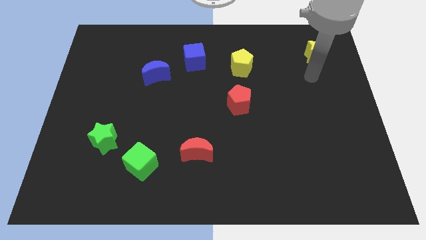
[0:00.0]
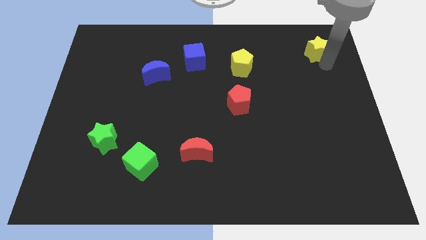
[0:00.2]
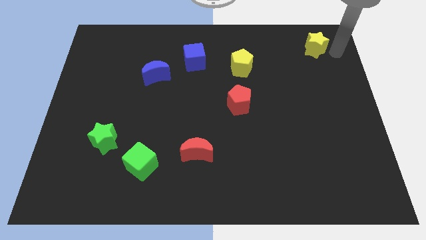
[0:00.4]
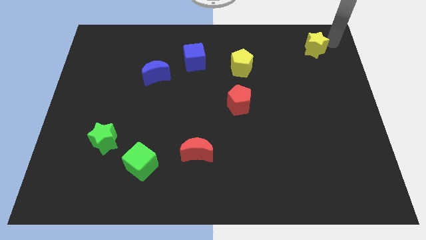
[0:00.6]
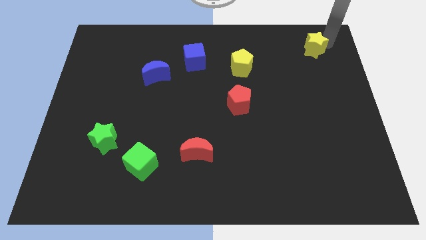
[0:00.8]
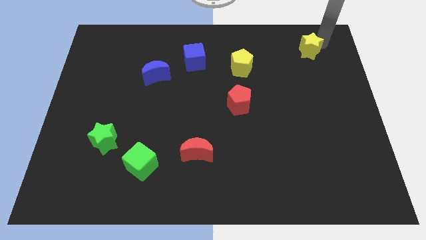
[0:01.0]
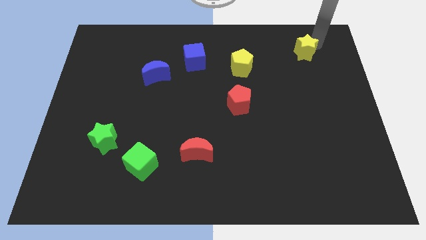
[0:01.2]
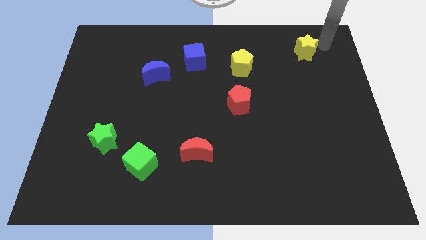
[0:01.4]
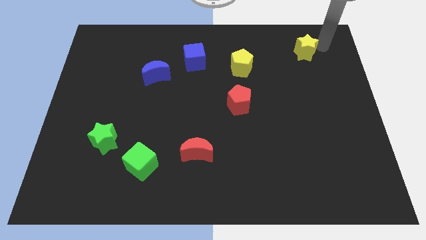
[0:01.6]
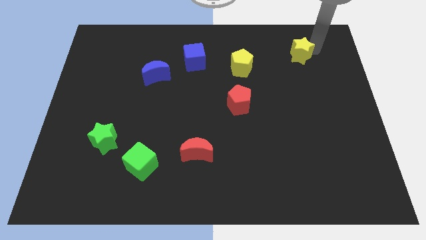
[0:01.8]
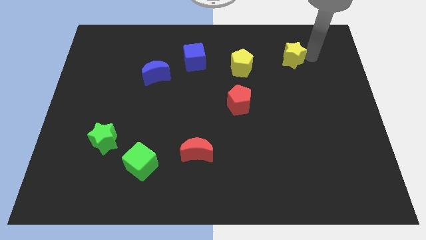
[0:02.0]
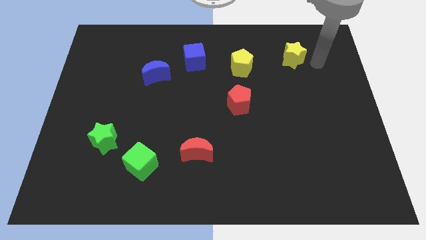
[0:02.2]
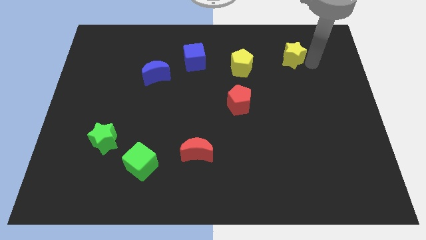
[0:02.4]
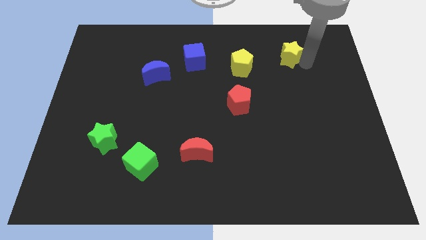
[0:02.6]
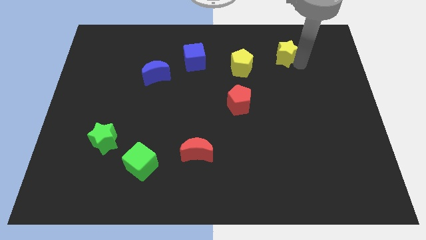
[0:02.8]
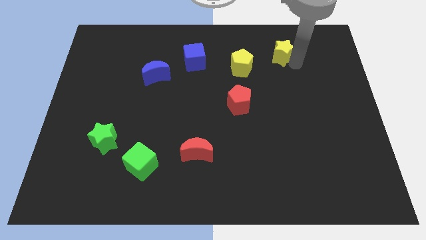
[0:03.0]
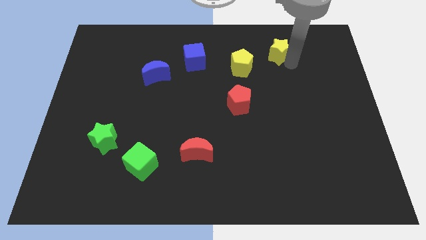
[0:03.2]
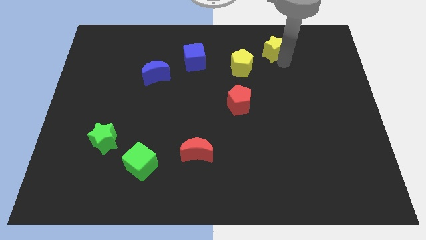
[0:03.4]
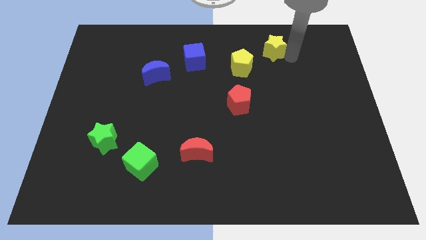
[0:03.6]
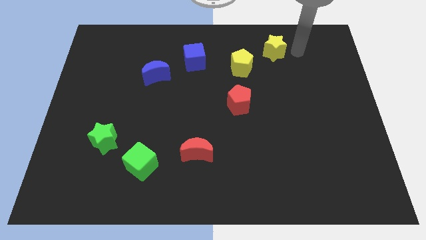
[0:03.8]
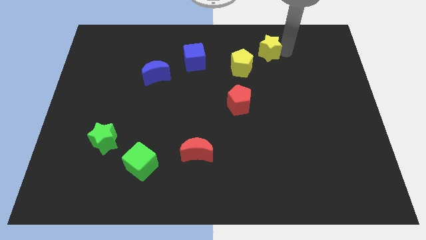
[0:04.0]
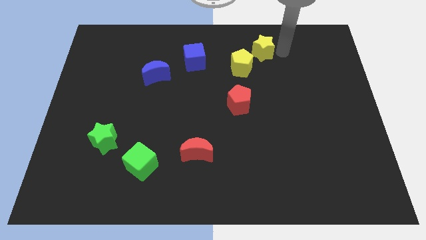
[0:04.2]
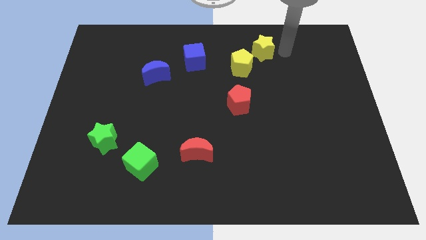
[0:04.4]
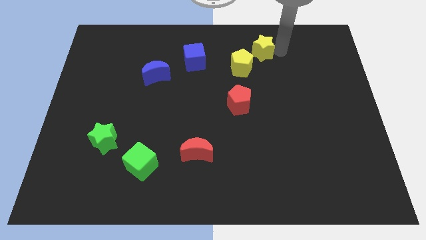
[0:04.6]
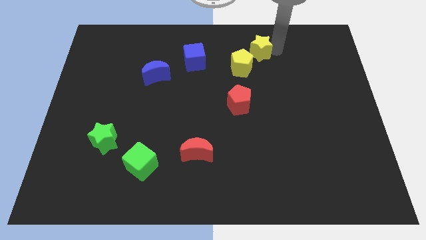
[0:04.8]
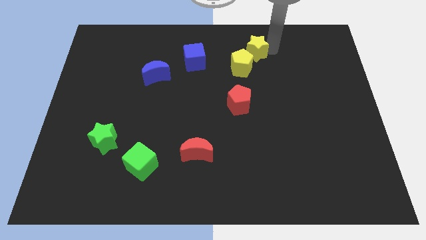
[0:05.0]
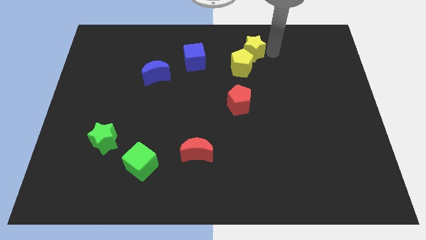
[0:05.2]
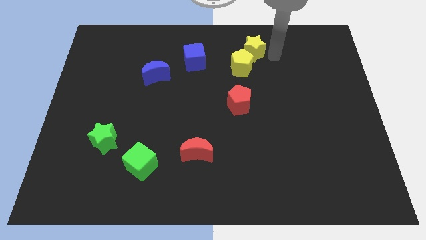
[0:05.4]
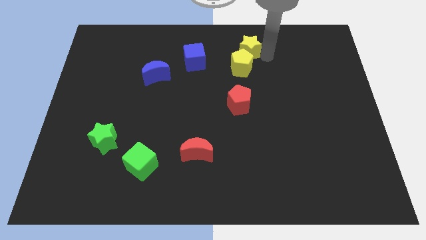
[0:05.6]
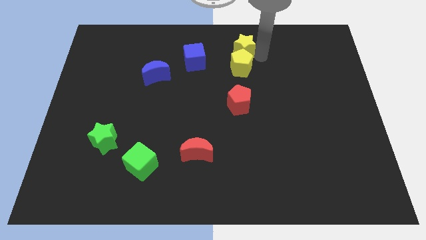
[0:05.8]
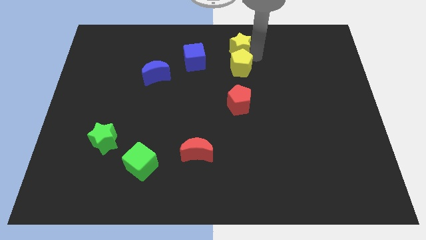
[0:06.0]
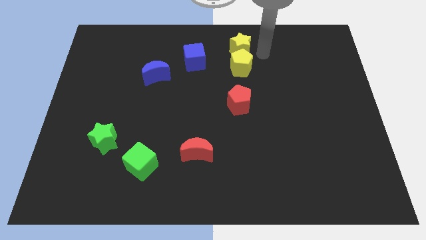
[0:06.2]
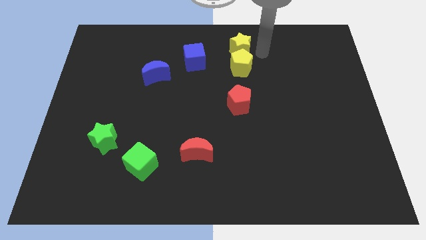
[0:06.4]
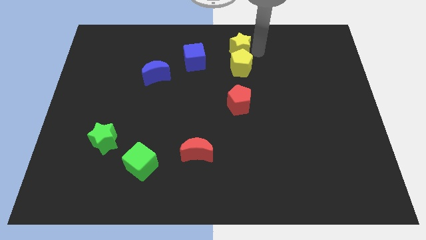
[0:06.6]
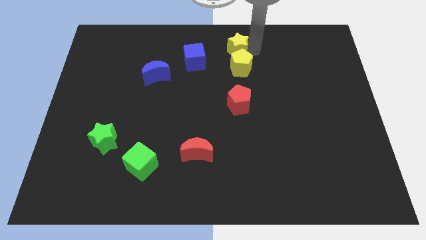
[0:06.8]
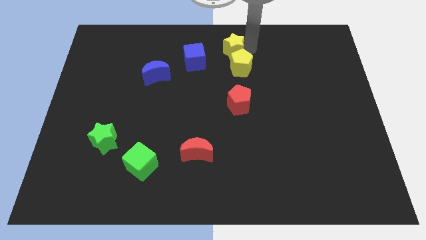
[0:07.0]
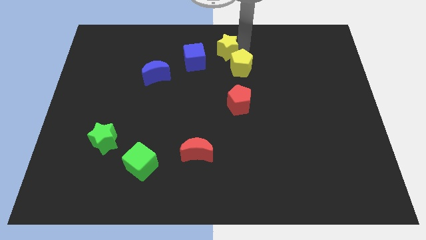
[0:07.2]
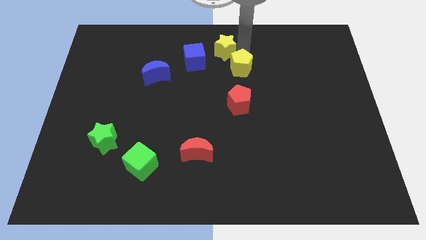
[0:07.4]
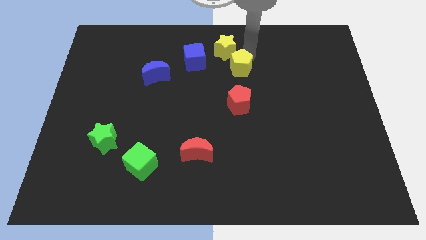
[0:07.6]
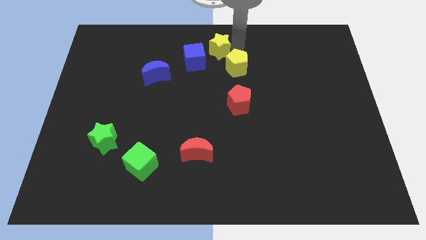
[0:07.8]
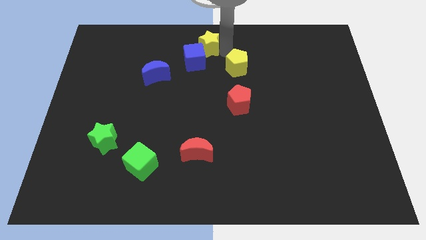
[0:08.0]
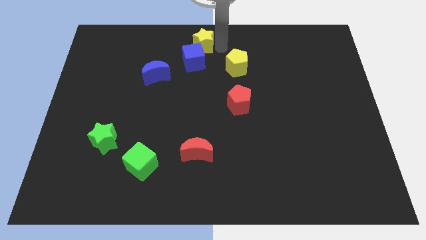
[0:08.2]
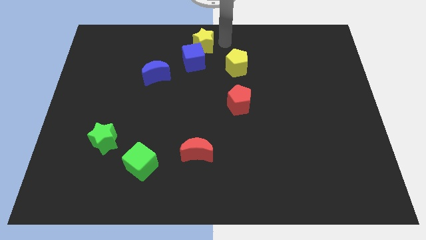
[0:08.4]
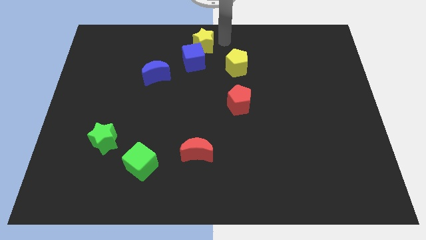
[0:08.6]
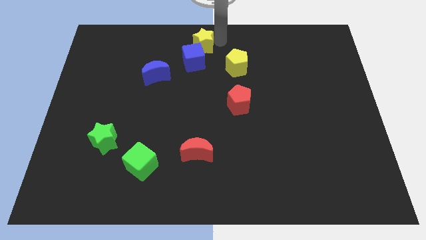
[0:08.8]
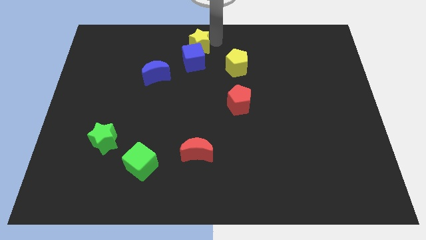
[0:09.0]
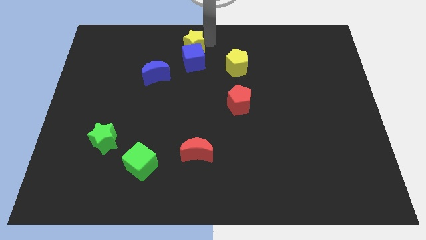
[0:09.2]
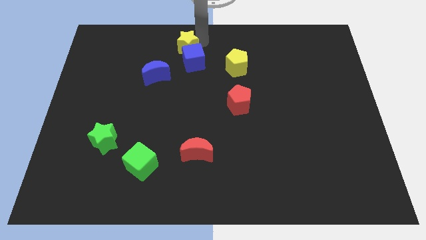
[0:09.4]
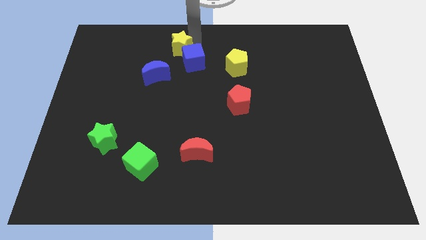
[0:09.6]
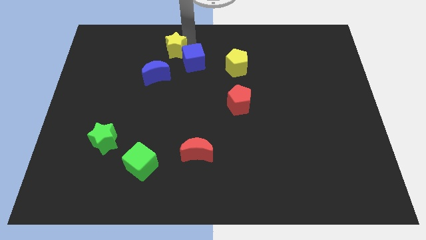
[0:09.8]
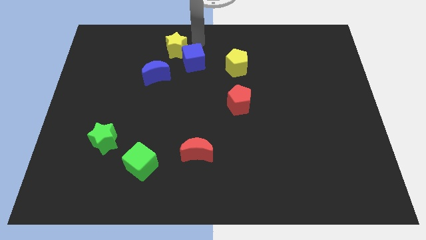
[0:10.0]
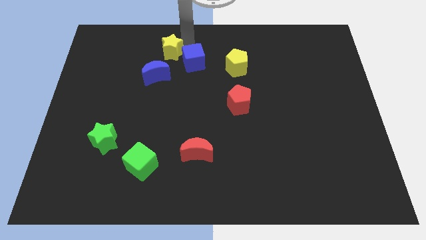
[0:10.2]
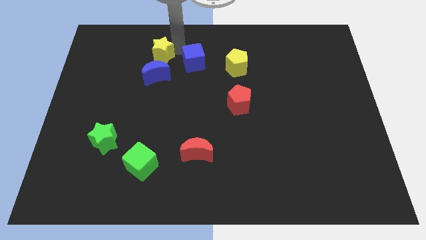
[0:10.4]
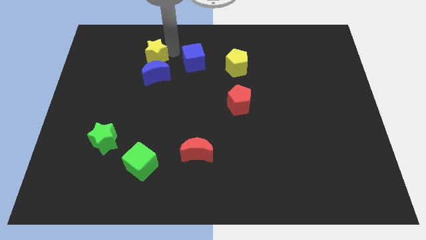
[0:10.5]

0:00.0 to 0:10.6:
push the yellow star to the top left side of the blue moon

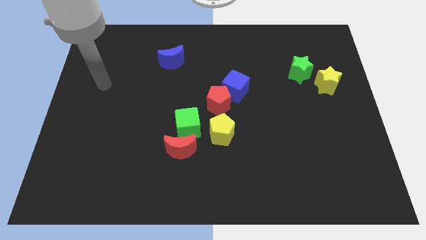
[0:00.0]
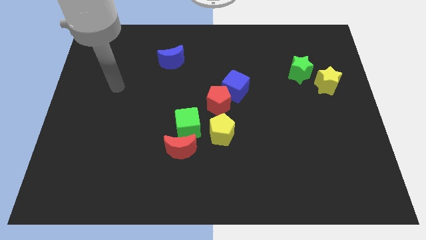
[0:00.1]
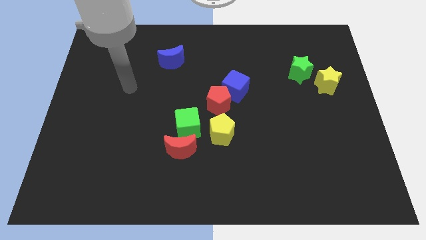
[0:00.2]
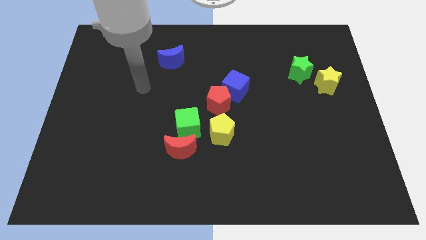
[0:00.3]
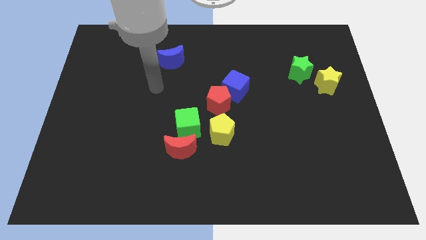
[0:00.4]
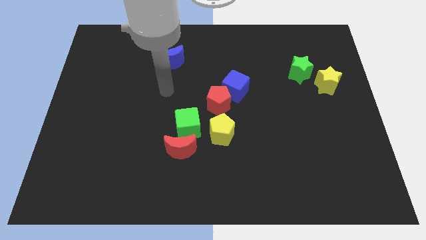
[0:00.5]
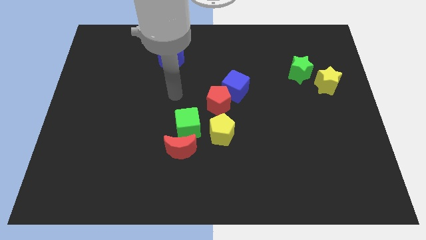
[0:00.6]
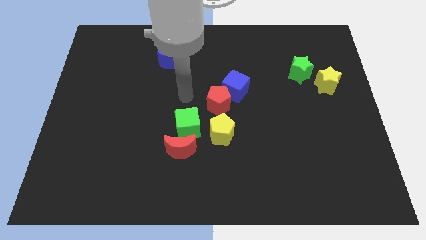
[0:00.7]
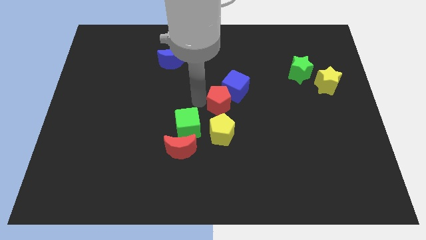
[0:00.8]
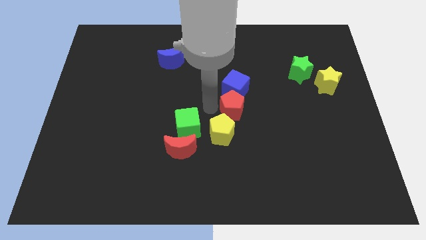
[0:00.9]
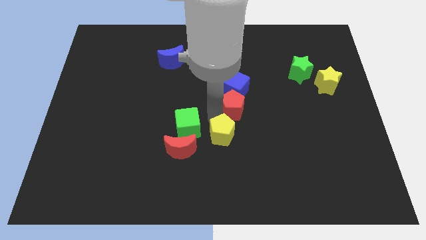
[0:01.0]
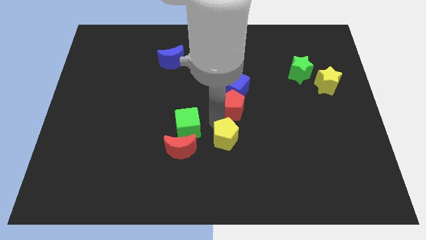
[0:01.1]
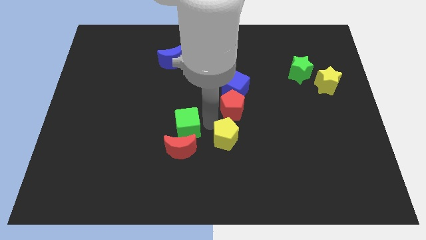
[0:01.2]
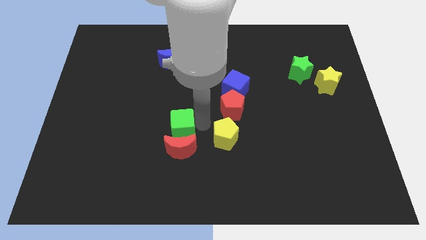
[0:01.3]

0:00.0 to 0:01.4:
move the green cube to the top left of the red moon
